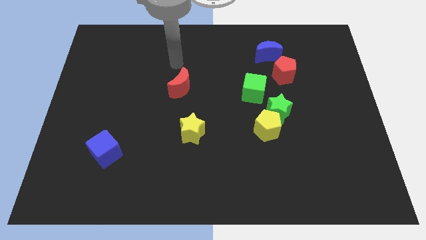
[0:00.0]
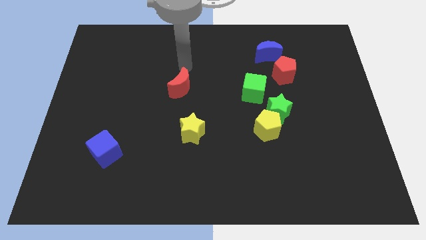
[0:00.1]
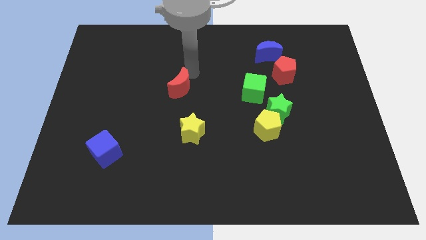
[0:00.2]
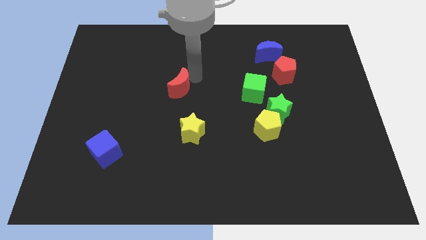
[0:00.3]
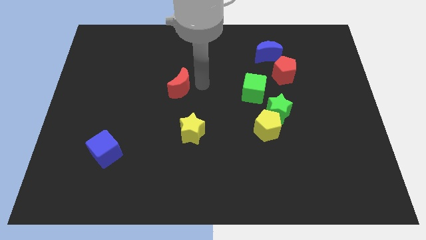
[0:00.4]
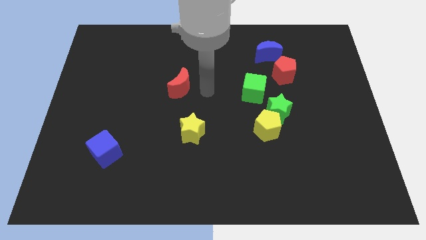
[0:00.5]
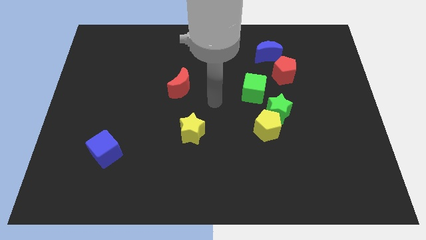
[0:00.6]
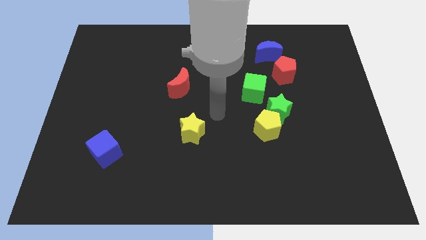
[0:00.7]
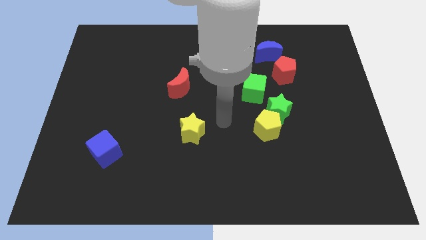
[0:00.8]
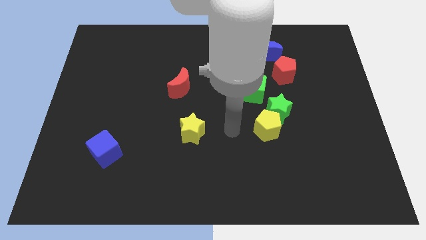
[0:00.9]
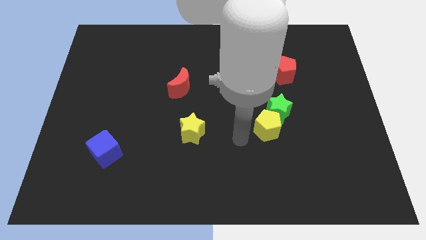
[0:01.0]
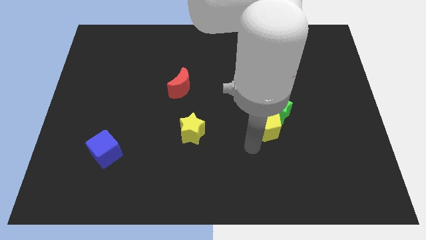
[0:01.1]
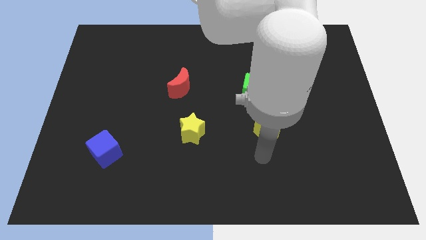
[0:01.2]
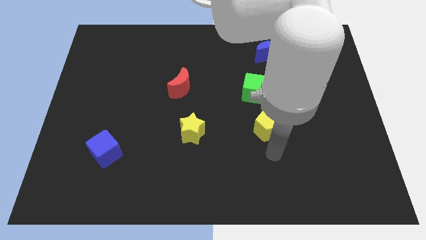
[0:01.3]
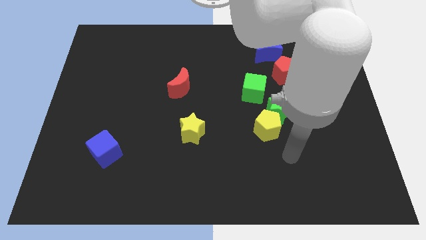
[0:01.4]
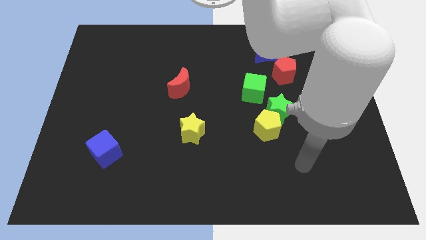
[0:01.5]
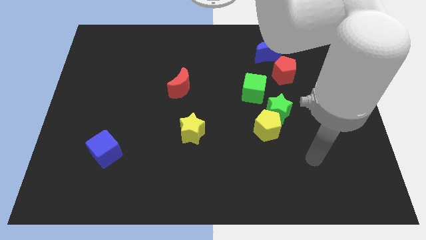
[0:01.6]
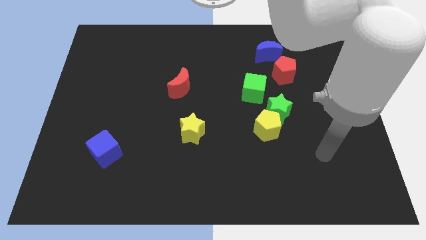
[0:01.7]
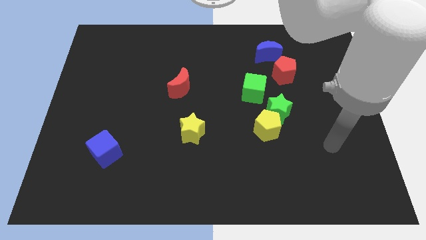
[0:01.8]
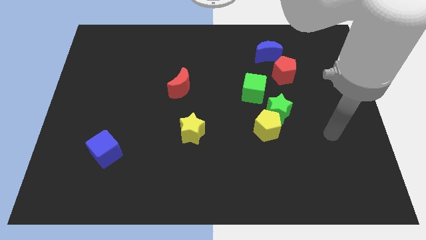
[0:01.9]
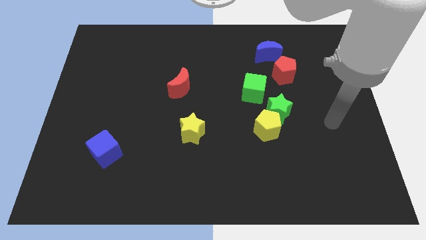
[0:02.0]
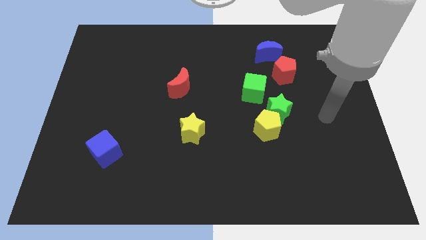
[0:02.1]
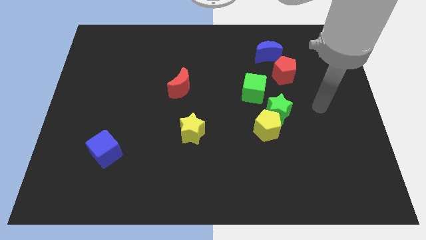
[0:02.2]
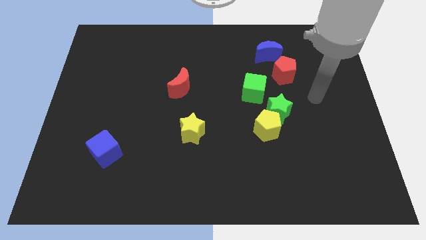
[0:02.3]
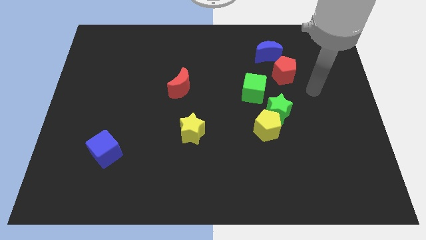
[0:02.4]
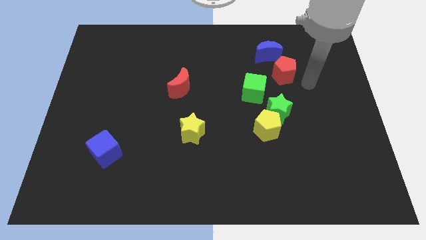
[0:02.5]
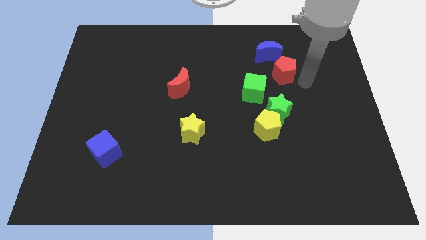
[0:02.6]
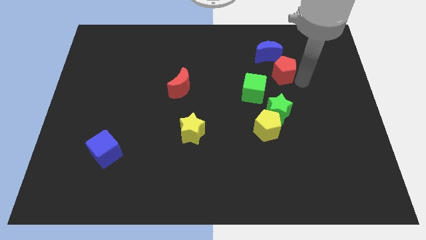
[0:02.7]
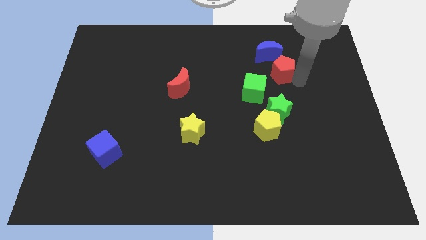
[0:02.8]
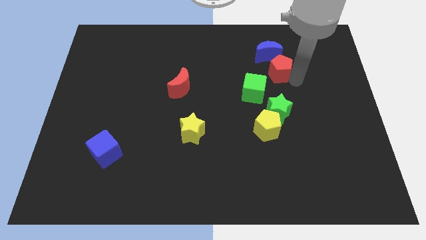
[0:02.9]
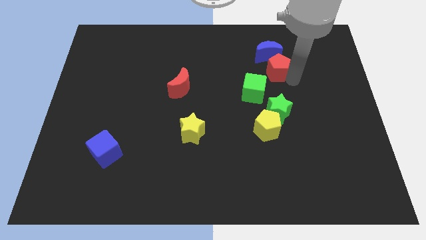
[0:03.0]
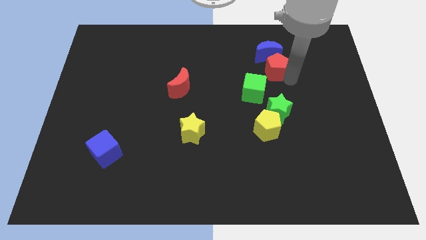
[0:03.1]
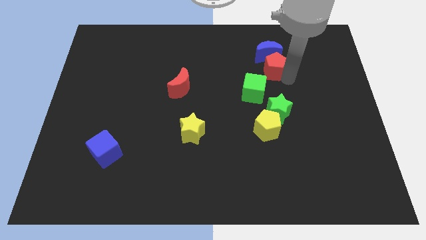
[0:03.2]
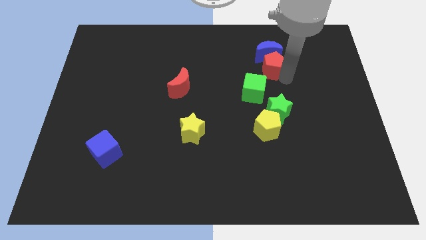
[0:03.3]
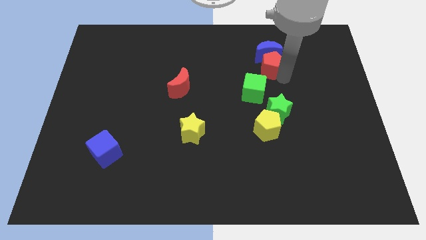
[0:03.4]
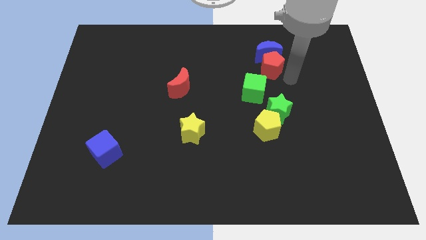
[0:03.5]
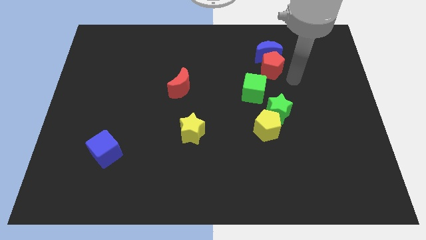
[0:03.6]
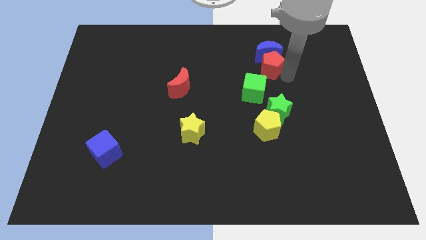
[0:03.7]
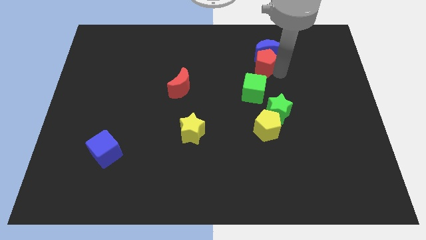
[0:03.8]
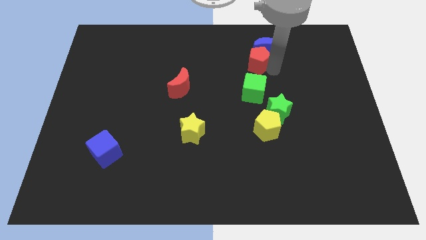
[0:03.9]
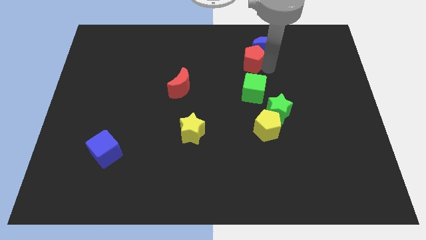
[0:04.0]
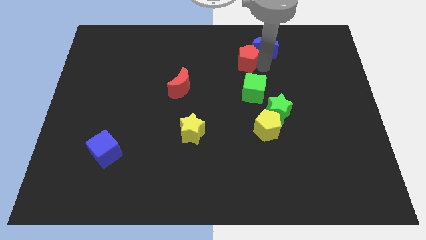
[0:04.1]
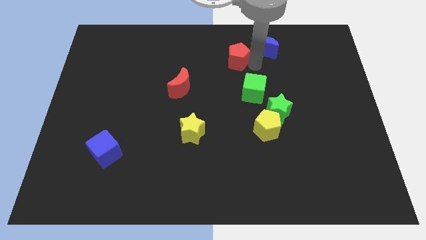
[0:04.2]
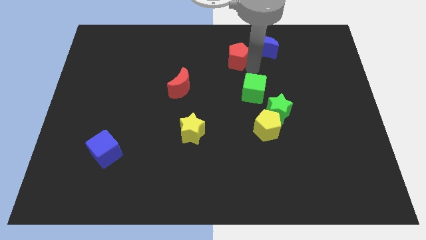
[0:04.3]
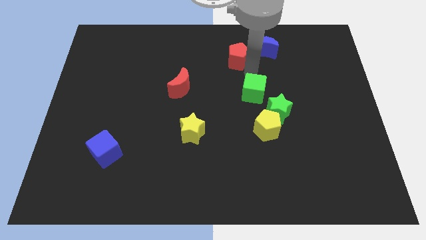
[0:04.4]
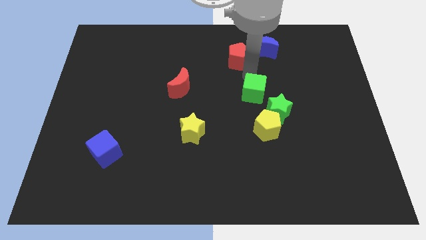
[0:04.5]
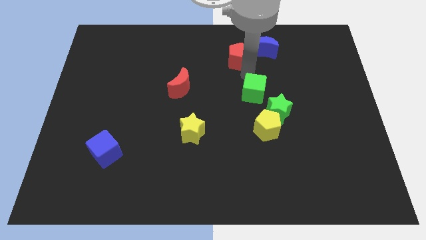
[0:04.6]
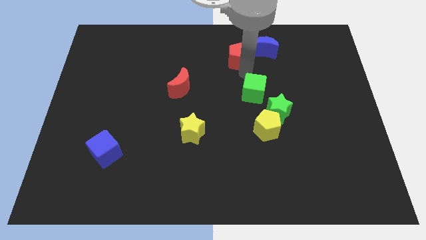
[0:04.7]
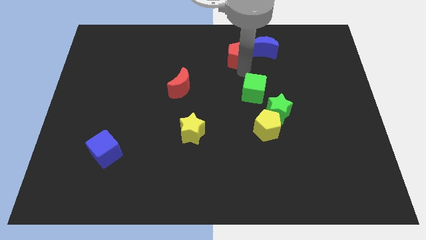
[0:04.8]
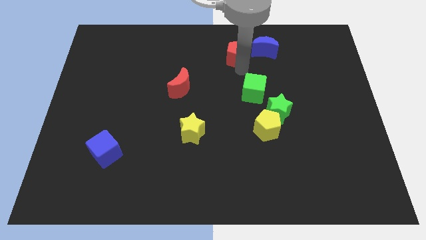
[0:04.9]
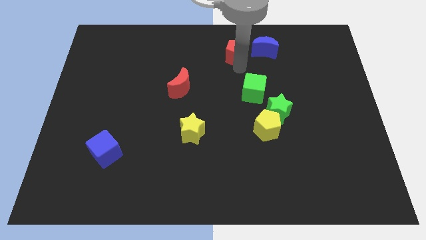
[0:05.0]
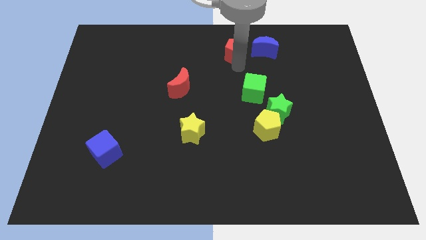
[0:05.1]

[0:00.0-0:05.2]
slide the red pentagon to the top side

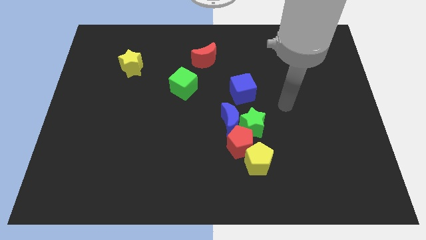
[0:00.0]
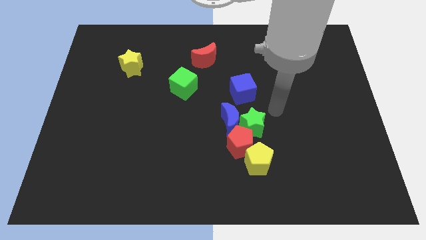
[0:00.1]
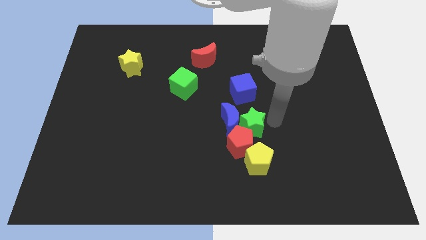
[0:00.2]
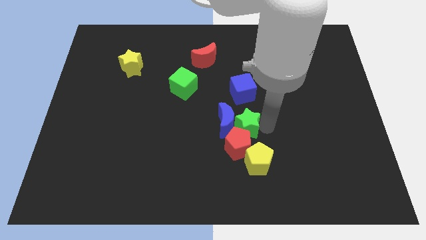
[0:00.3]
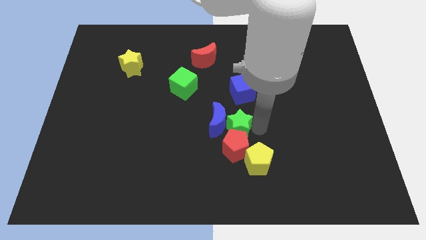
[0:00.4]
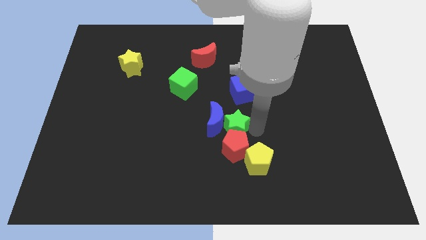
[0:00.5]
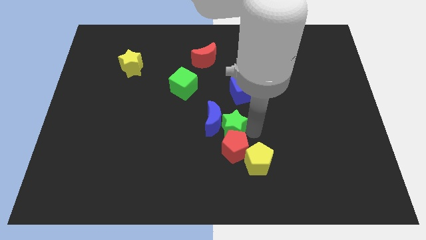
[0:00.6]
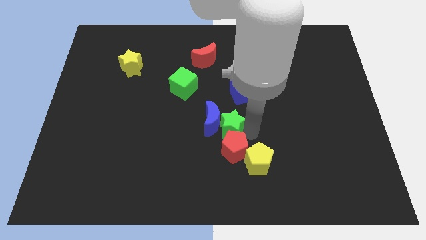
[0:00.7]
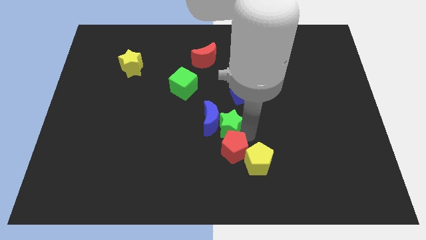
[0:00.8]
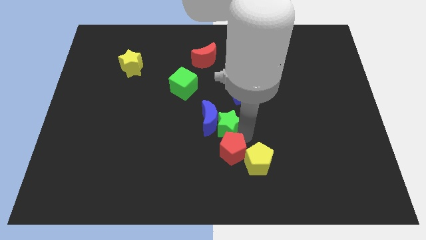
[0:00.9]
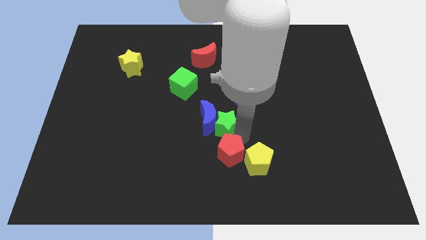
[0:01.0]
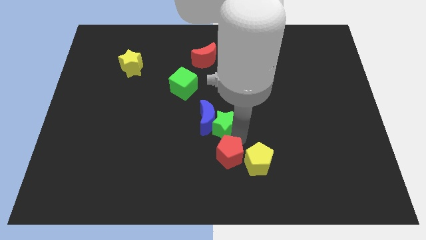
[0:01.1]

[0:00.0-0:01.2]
put the red pentagon to the bottom side

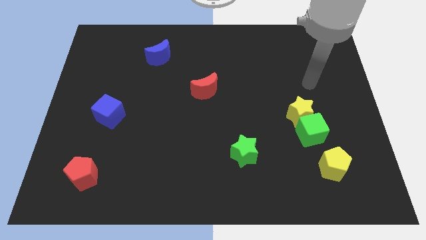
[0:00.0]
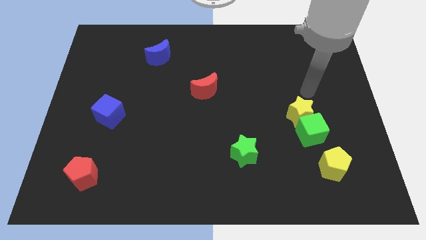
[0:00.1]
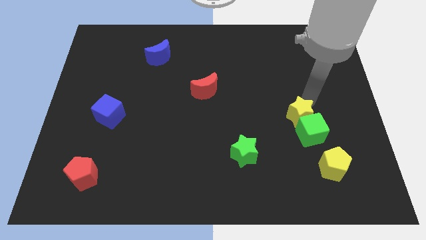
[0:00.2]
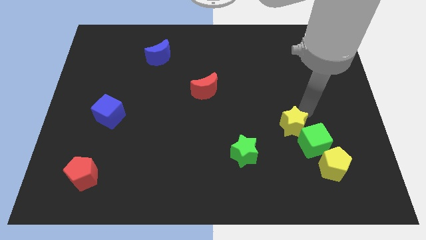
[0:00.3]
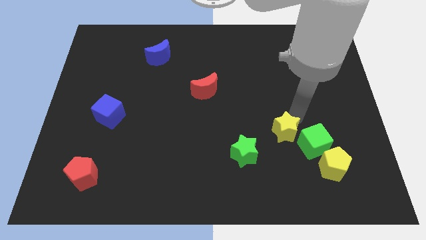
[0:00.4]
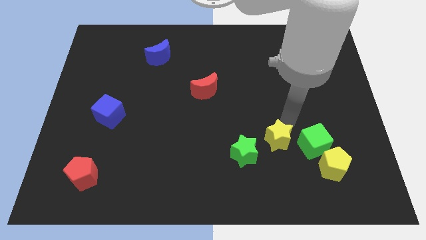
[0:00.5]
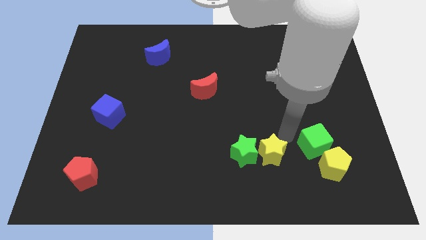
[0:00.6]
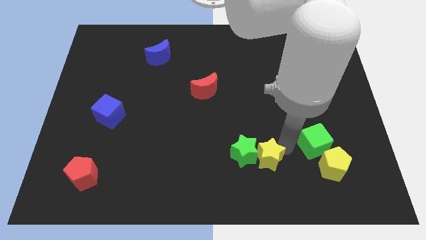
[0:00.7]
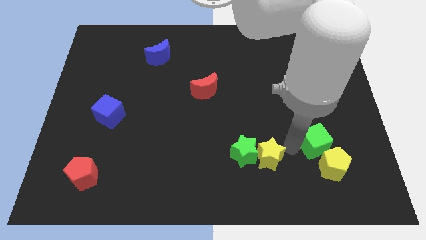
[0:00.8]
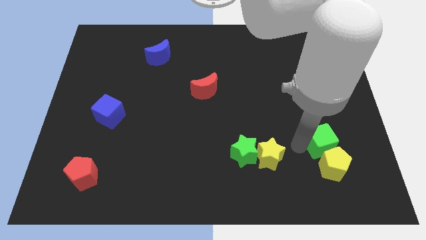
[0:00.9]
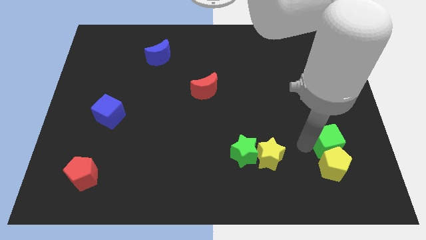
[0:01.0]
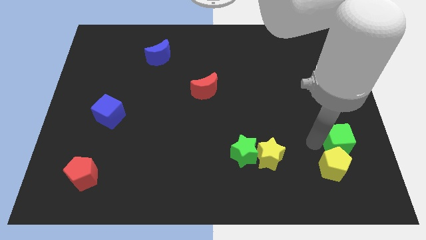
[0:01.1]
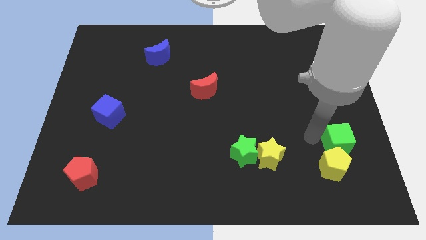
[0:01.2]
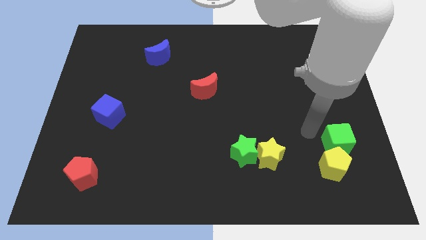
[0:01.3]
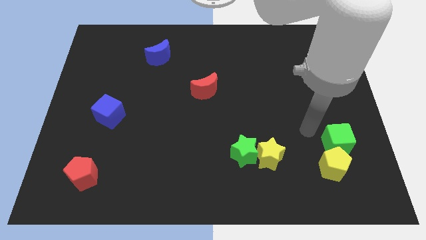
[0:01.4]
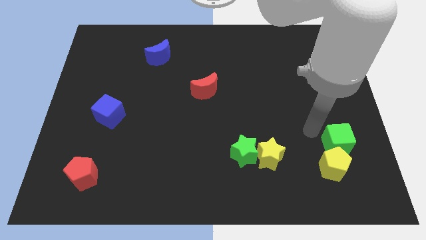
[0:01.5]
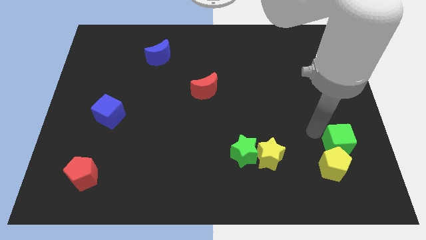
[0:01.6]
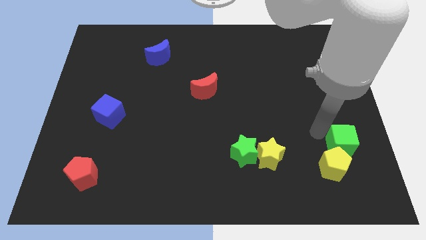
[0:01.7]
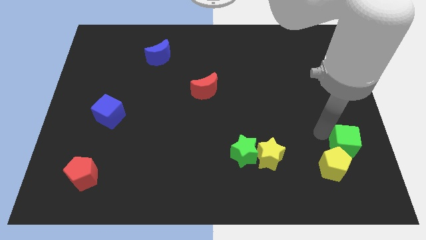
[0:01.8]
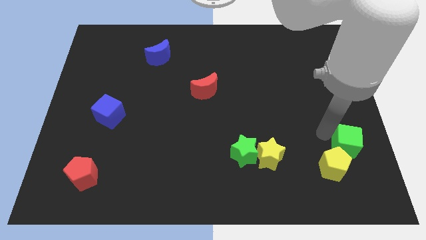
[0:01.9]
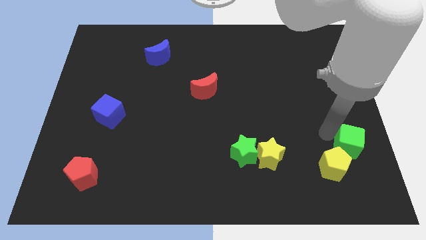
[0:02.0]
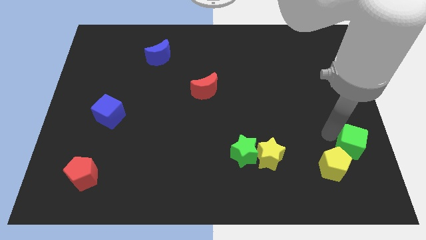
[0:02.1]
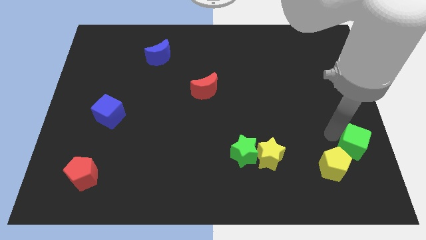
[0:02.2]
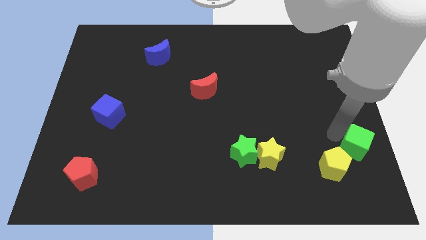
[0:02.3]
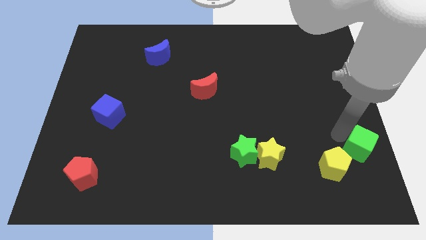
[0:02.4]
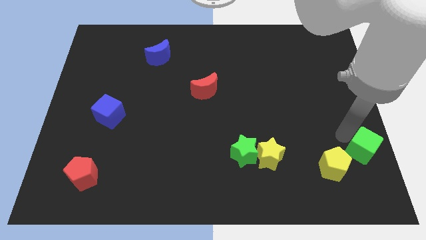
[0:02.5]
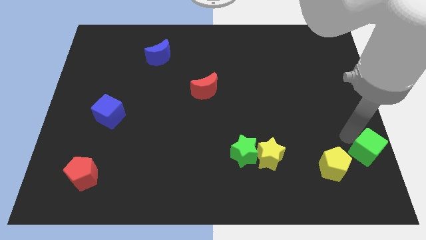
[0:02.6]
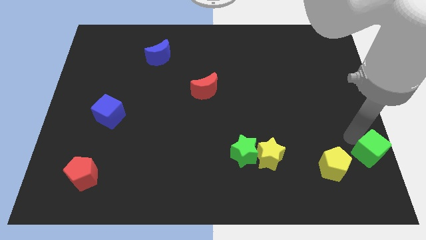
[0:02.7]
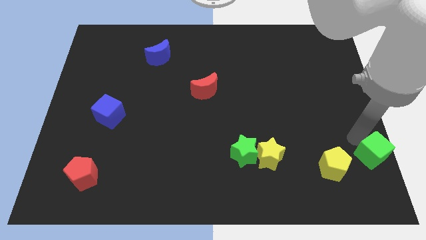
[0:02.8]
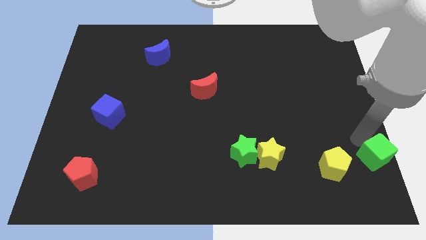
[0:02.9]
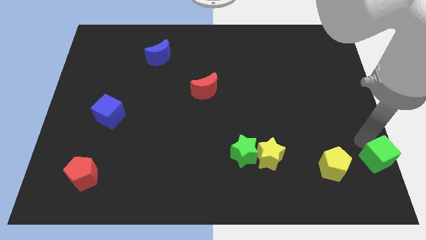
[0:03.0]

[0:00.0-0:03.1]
put the green cube to the bottom right
